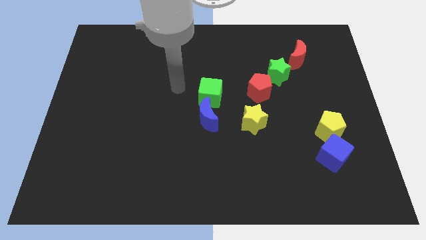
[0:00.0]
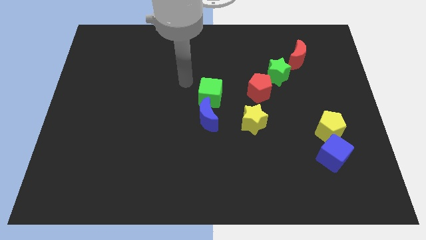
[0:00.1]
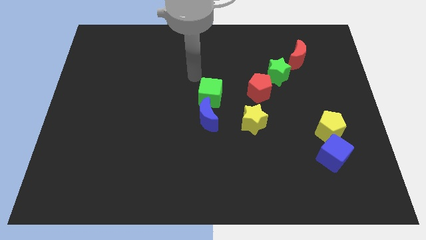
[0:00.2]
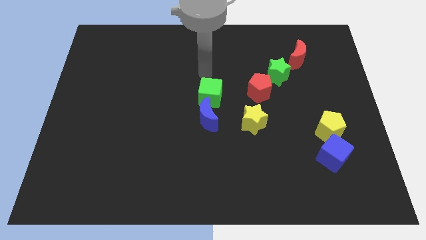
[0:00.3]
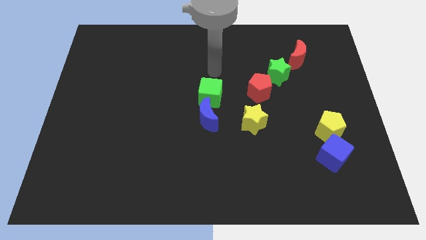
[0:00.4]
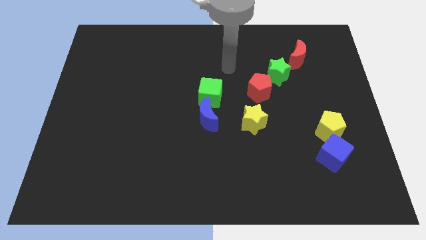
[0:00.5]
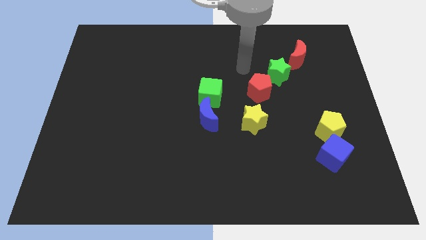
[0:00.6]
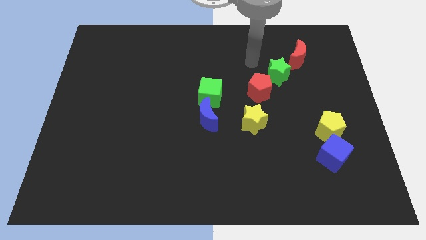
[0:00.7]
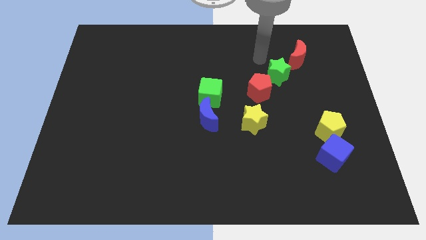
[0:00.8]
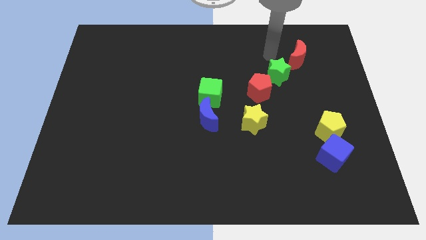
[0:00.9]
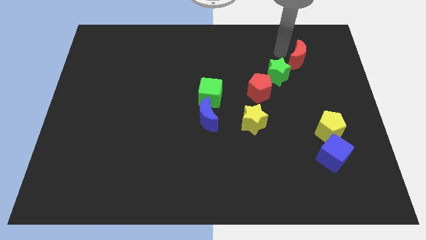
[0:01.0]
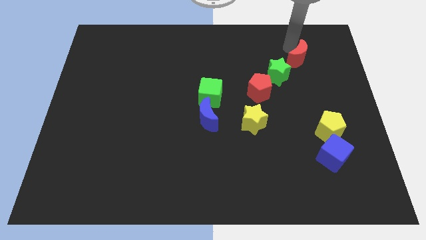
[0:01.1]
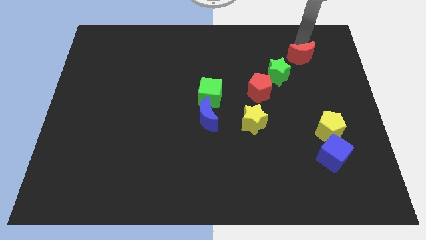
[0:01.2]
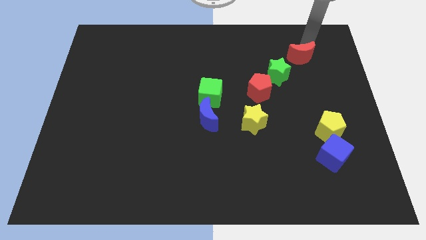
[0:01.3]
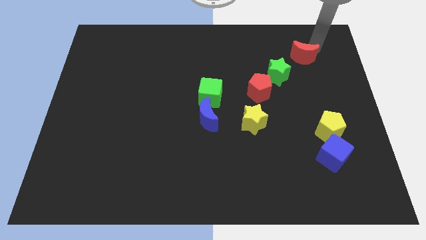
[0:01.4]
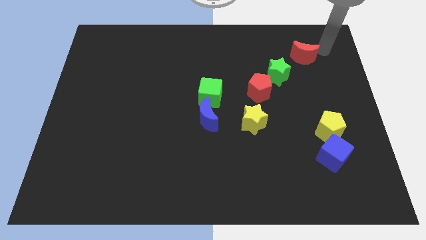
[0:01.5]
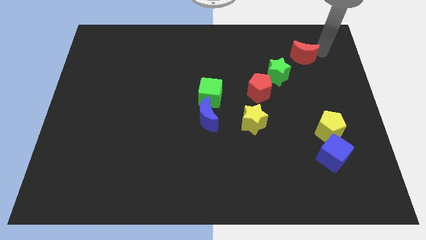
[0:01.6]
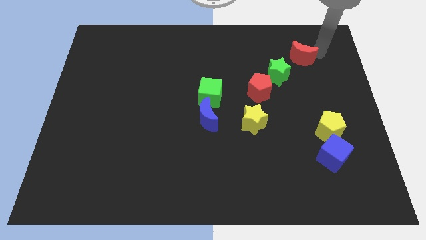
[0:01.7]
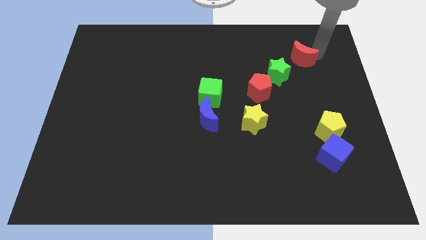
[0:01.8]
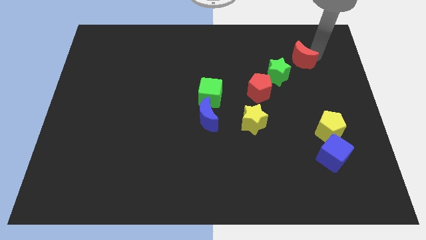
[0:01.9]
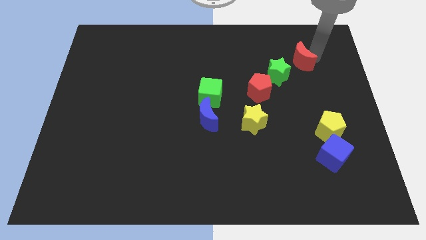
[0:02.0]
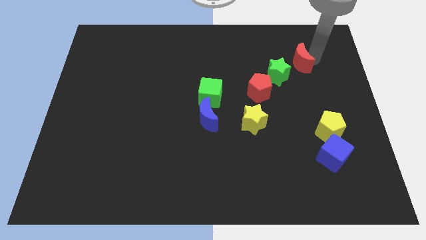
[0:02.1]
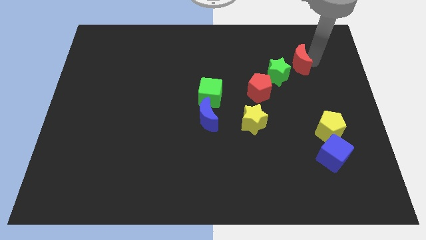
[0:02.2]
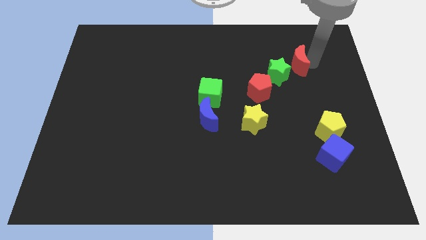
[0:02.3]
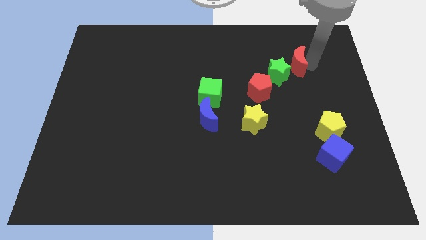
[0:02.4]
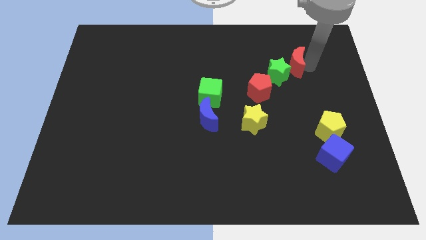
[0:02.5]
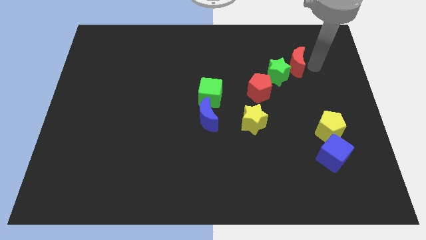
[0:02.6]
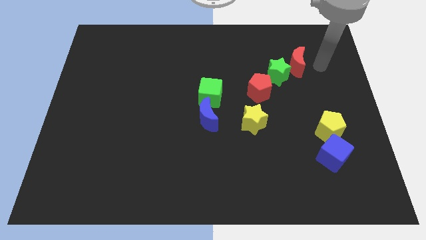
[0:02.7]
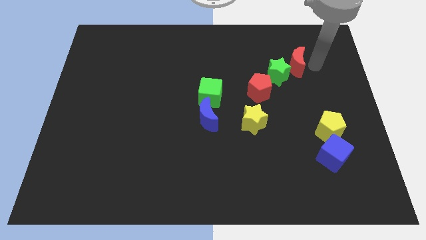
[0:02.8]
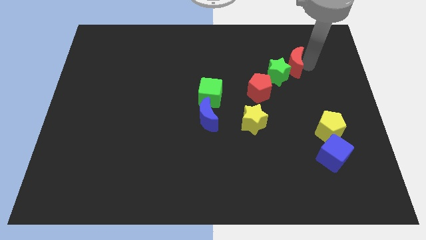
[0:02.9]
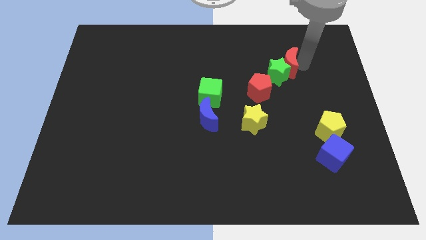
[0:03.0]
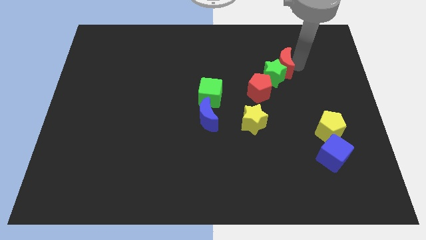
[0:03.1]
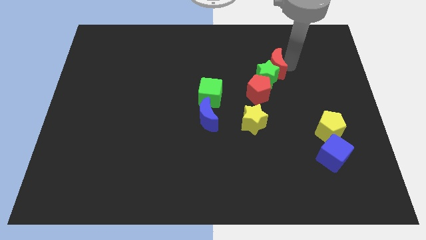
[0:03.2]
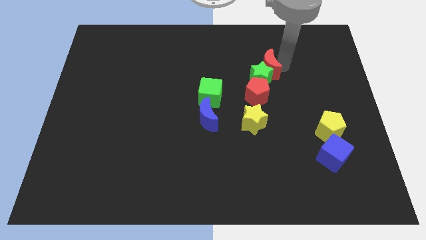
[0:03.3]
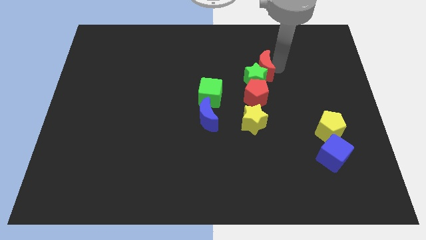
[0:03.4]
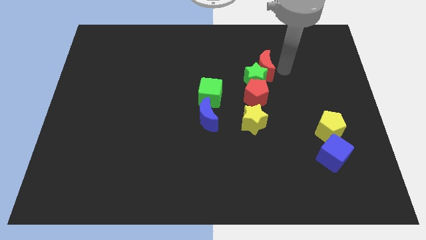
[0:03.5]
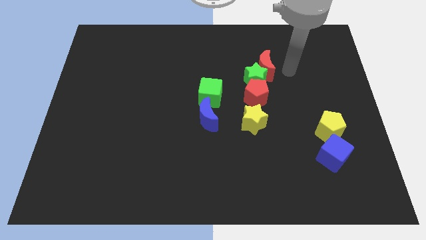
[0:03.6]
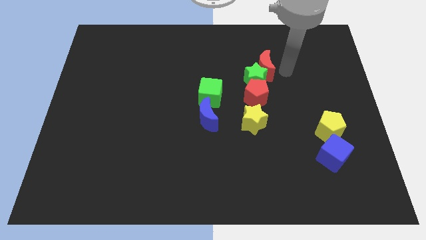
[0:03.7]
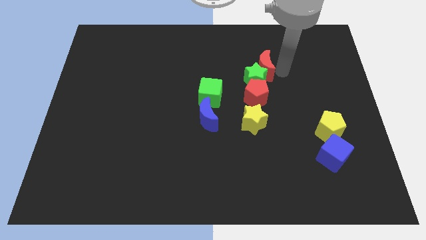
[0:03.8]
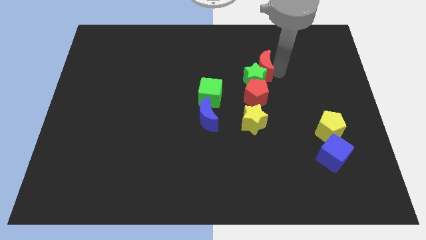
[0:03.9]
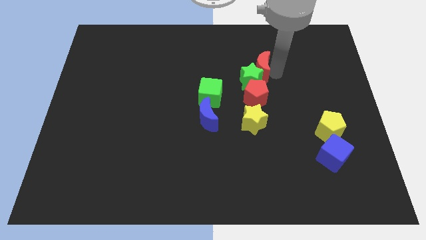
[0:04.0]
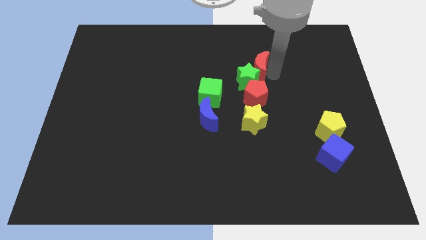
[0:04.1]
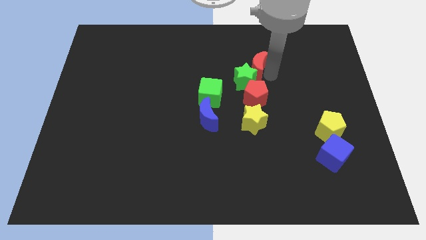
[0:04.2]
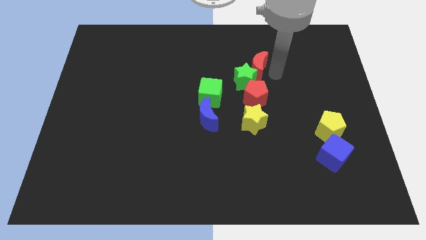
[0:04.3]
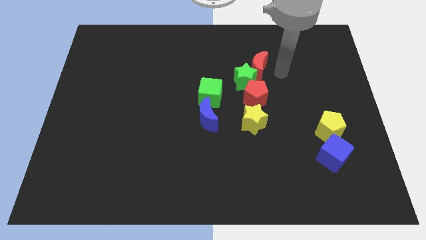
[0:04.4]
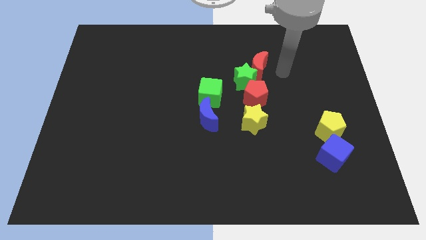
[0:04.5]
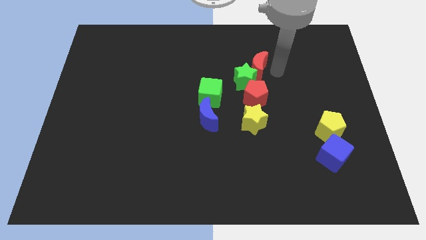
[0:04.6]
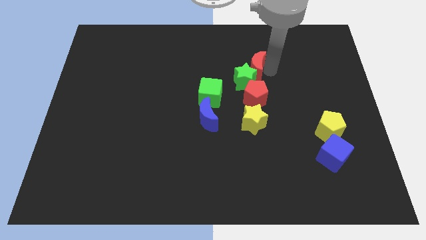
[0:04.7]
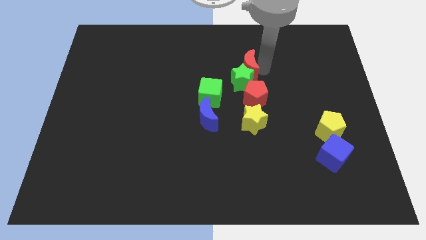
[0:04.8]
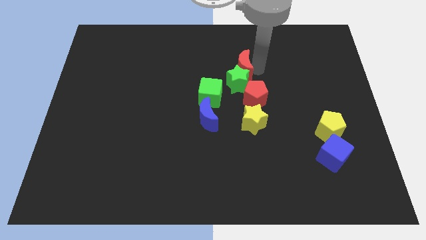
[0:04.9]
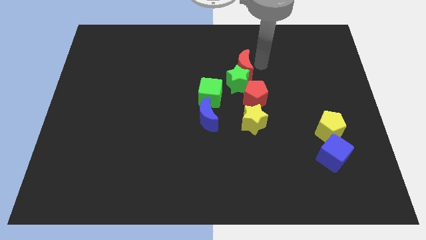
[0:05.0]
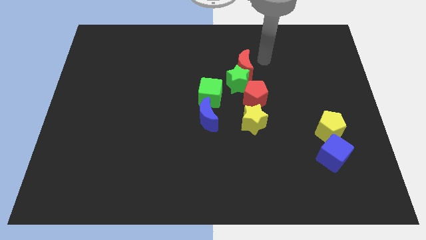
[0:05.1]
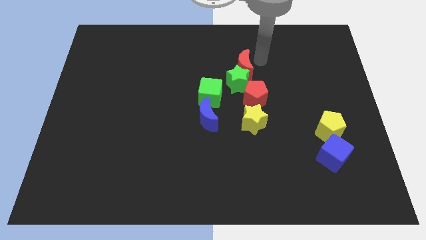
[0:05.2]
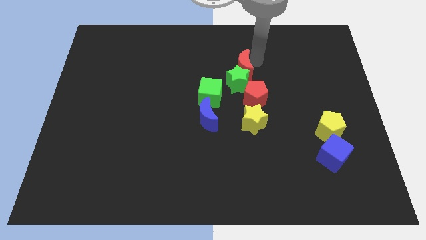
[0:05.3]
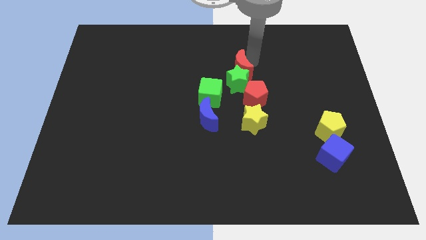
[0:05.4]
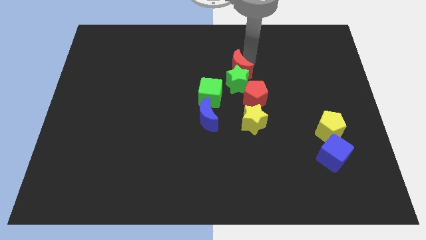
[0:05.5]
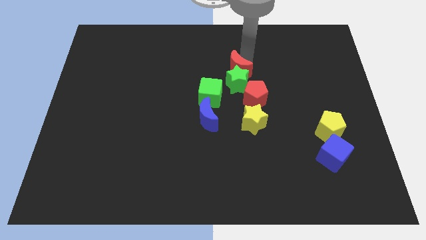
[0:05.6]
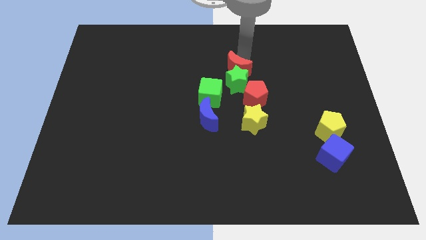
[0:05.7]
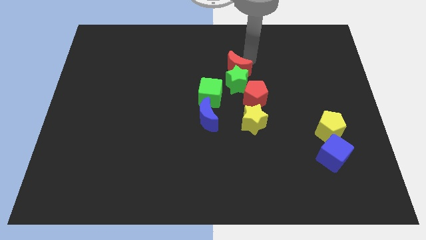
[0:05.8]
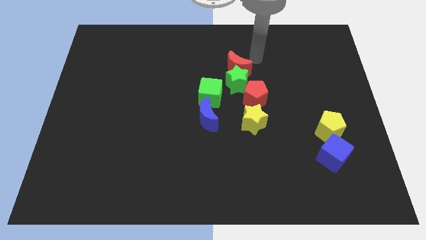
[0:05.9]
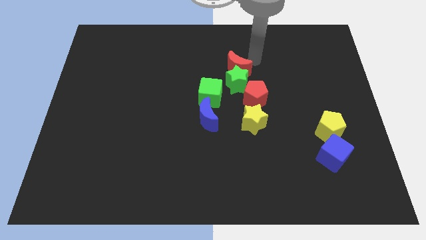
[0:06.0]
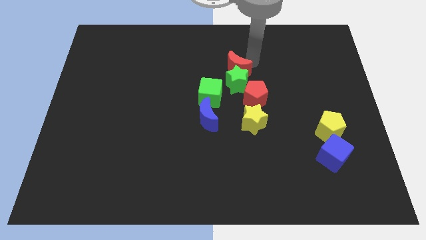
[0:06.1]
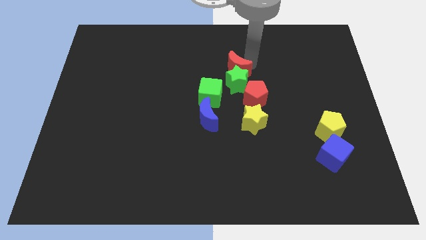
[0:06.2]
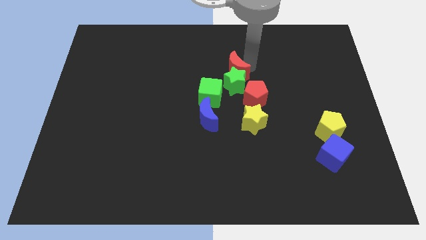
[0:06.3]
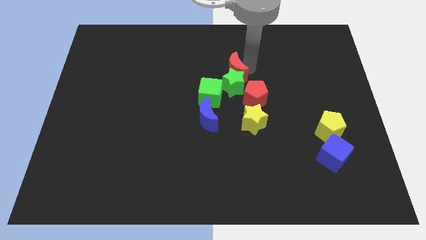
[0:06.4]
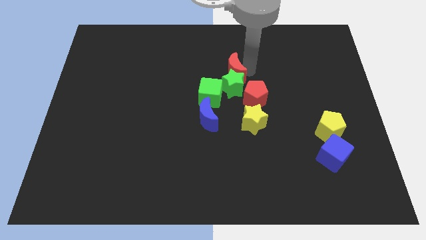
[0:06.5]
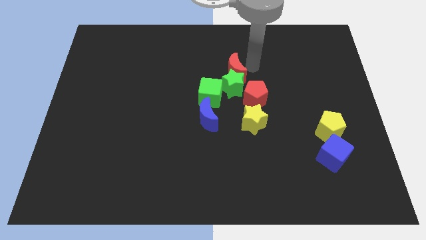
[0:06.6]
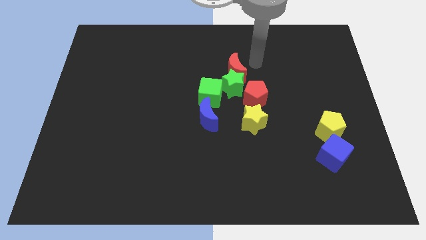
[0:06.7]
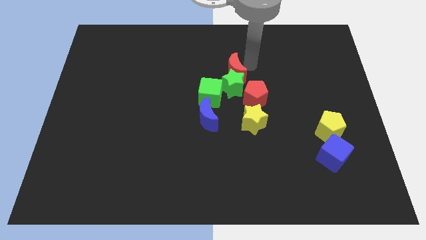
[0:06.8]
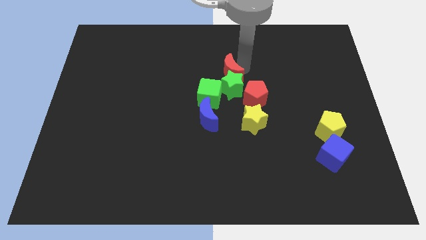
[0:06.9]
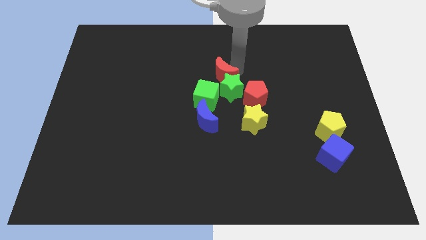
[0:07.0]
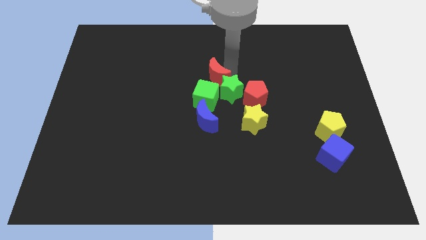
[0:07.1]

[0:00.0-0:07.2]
push the red moon to the top side of the blue moon
